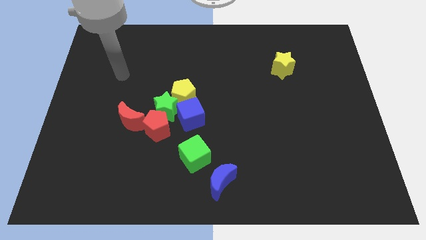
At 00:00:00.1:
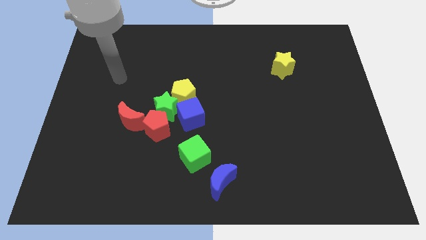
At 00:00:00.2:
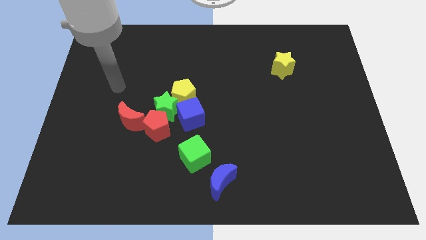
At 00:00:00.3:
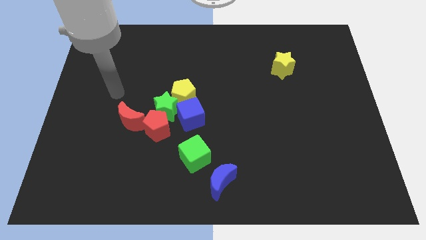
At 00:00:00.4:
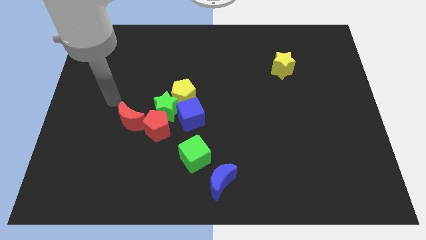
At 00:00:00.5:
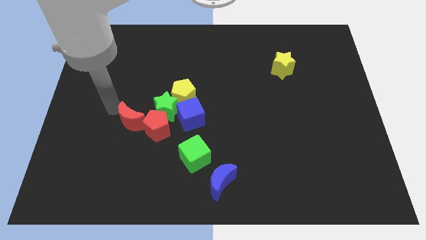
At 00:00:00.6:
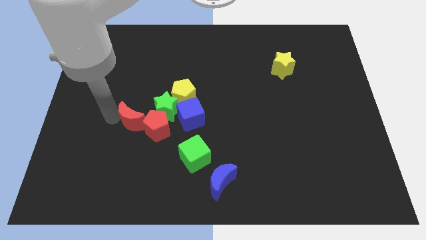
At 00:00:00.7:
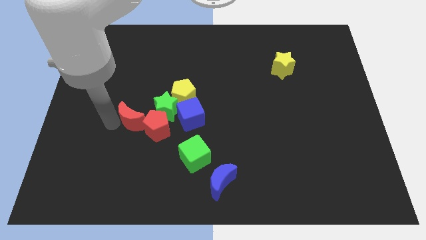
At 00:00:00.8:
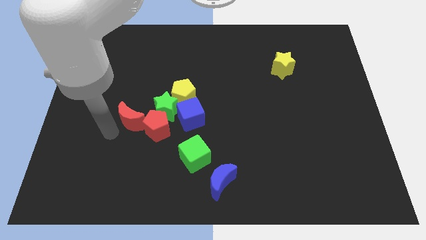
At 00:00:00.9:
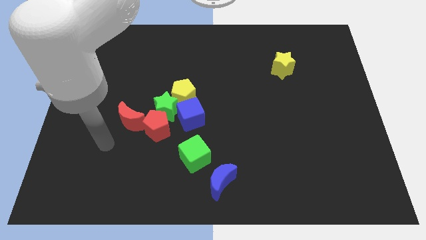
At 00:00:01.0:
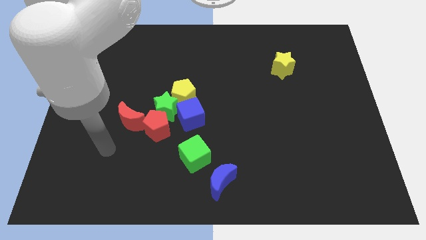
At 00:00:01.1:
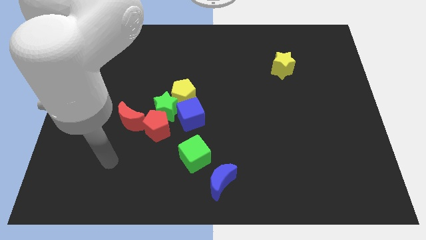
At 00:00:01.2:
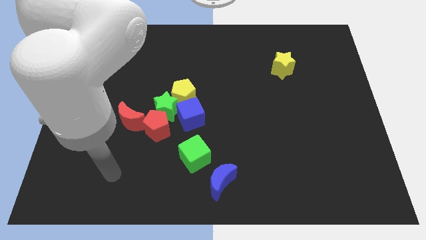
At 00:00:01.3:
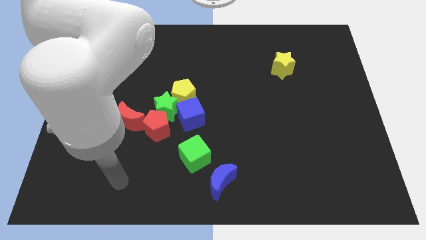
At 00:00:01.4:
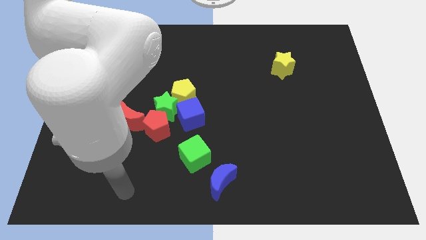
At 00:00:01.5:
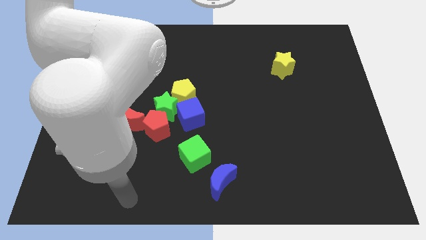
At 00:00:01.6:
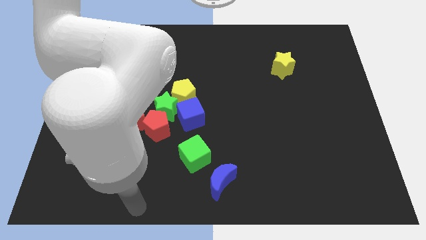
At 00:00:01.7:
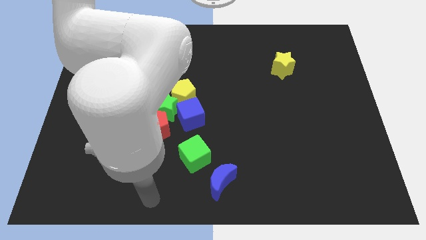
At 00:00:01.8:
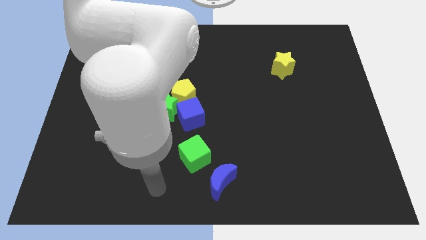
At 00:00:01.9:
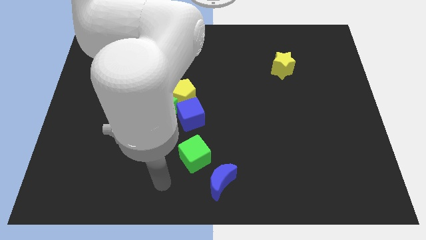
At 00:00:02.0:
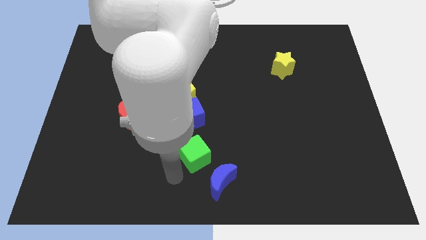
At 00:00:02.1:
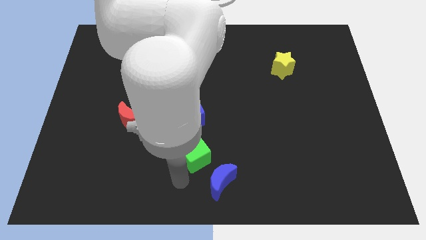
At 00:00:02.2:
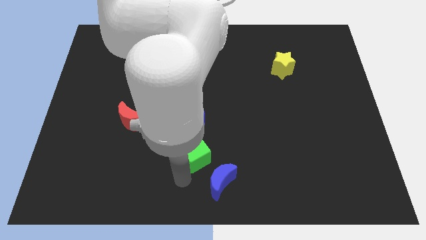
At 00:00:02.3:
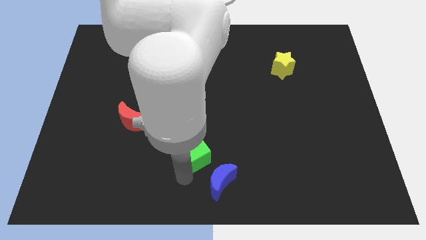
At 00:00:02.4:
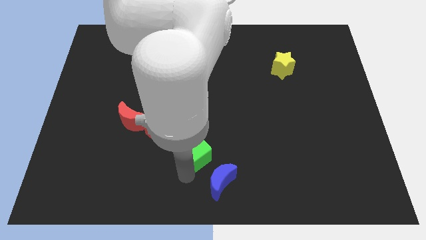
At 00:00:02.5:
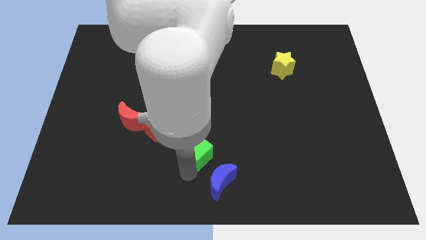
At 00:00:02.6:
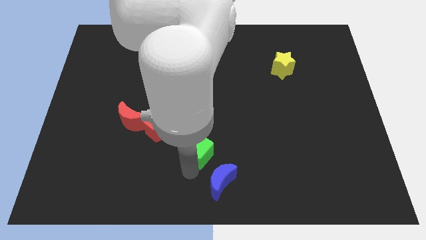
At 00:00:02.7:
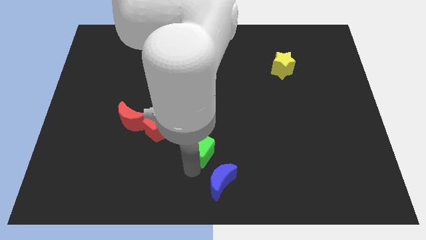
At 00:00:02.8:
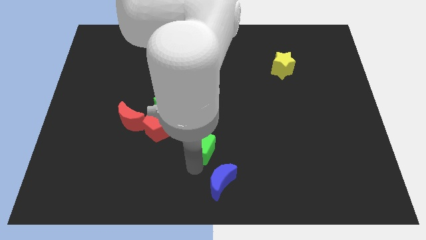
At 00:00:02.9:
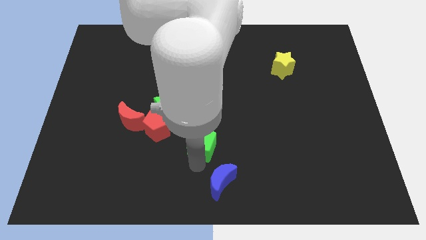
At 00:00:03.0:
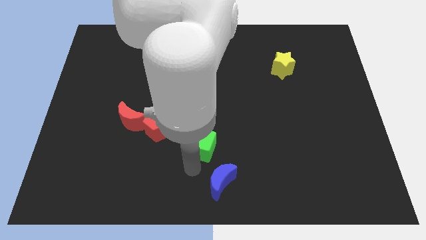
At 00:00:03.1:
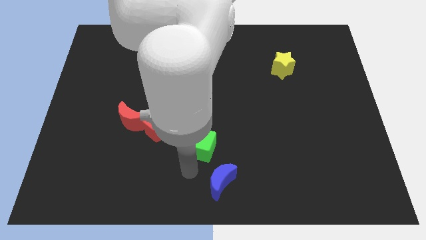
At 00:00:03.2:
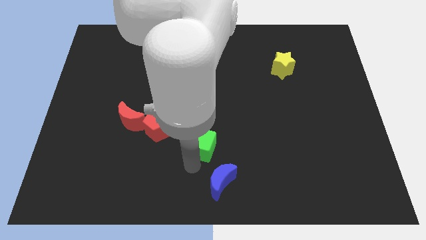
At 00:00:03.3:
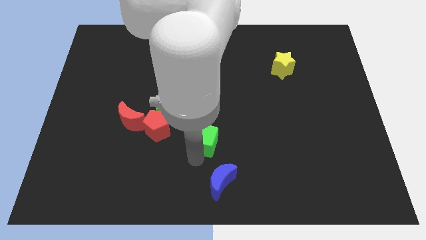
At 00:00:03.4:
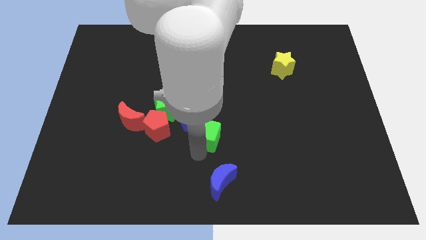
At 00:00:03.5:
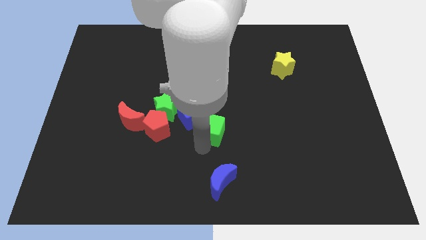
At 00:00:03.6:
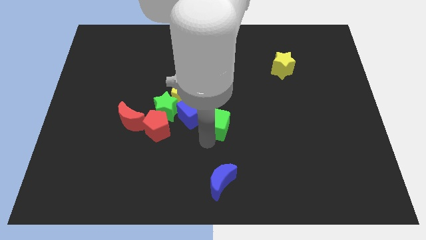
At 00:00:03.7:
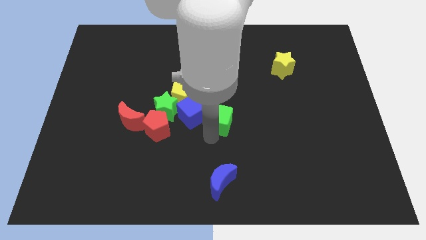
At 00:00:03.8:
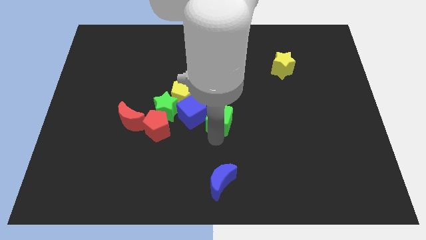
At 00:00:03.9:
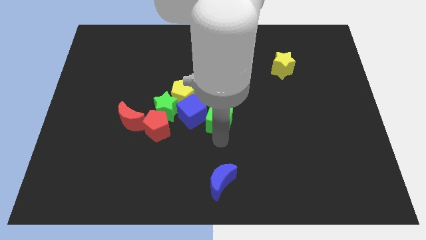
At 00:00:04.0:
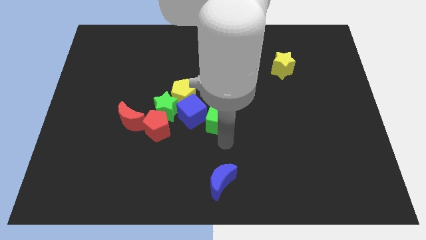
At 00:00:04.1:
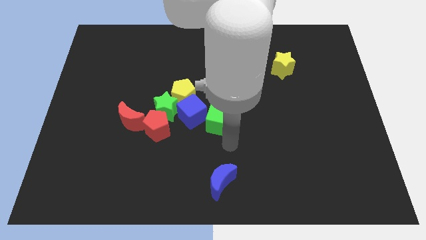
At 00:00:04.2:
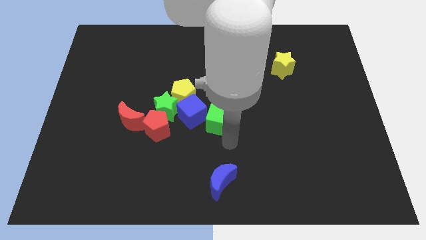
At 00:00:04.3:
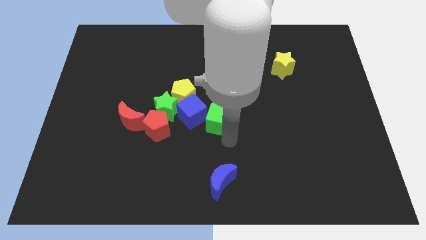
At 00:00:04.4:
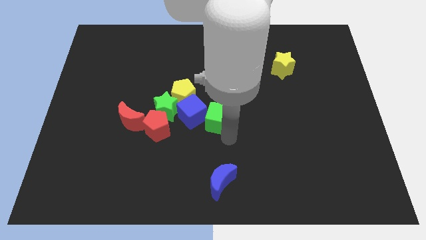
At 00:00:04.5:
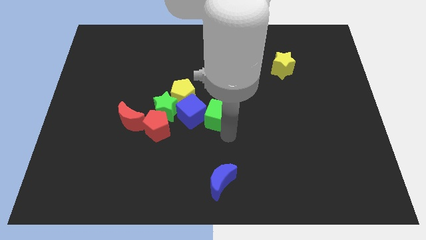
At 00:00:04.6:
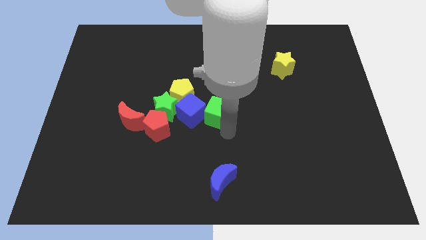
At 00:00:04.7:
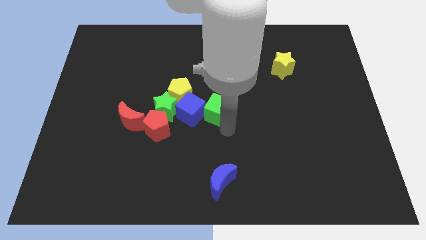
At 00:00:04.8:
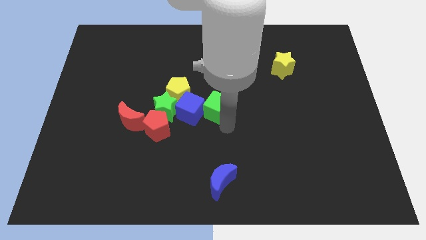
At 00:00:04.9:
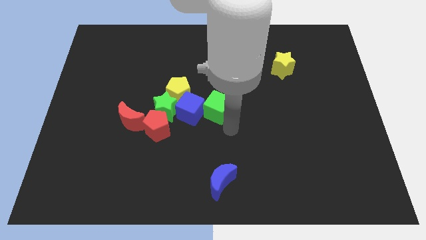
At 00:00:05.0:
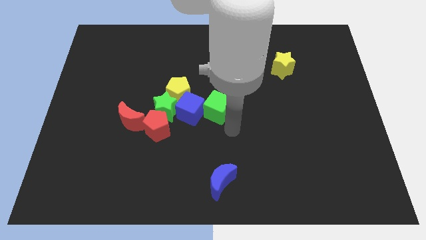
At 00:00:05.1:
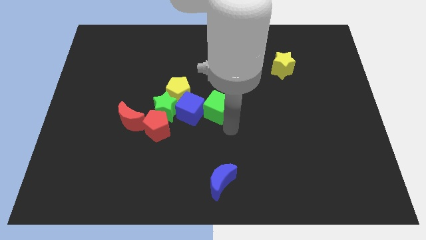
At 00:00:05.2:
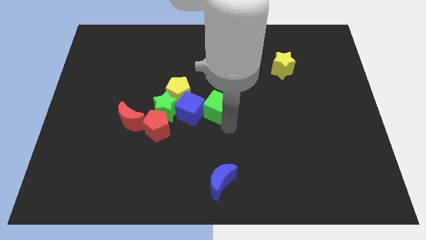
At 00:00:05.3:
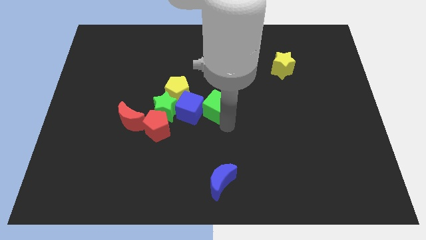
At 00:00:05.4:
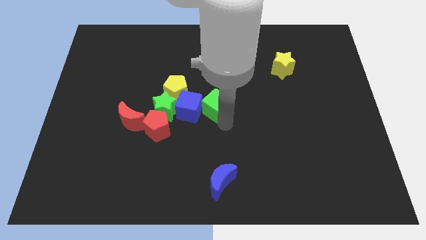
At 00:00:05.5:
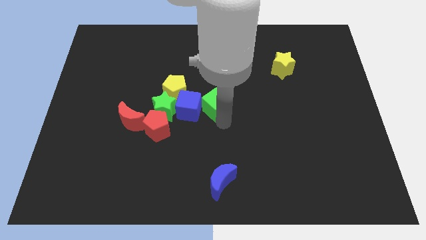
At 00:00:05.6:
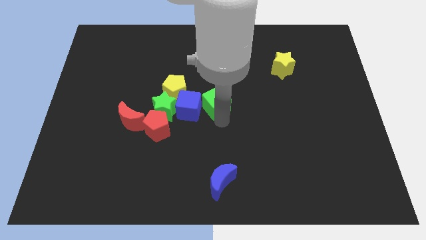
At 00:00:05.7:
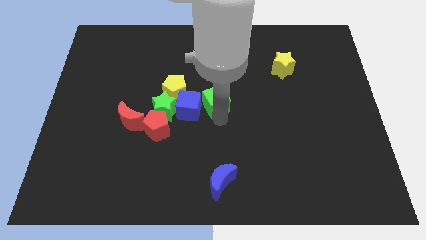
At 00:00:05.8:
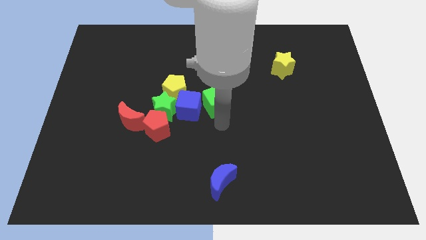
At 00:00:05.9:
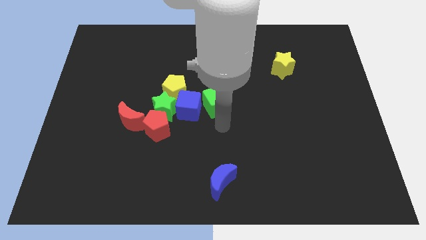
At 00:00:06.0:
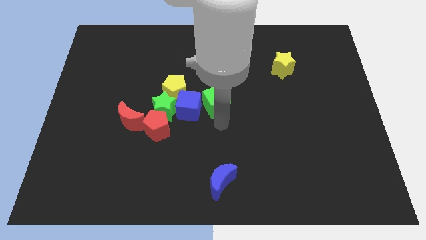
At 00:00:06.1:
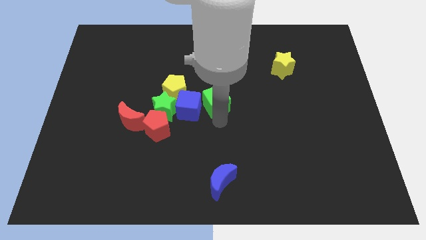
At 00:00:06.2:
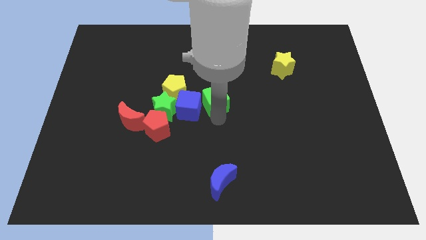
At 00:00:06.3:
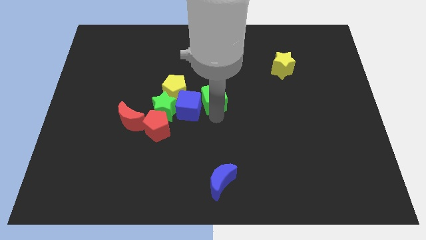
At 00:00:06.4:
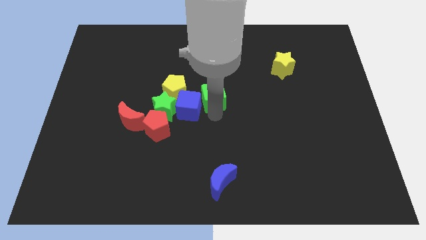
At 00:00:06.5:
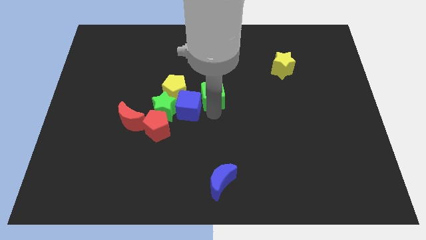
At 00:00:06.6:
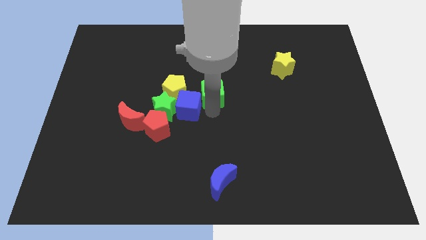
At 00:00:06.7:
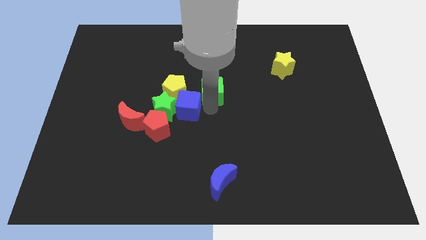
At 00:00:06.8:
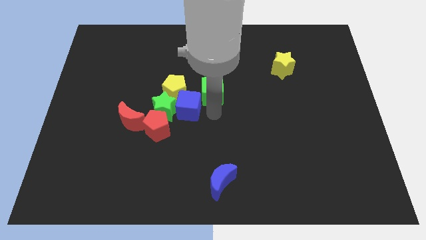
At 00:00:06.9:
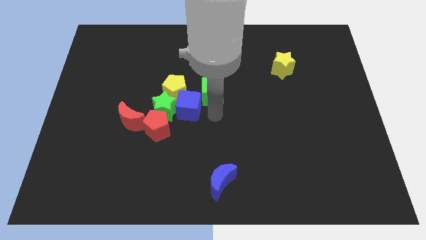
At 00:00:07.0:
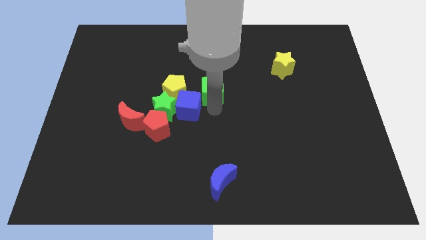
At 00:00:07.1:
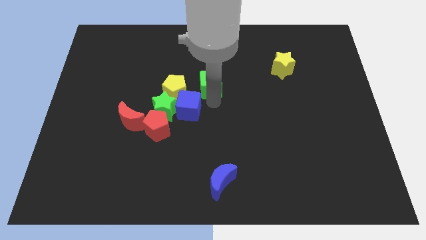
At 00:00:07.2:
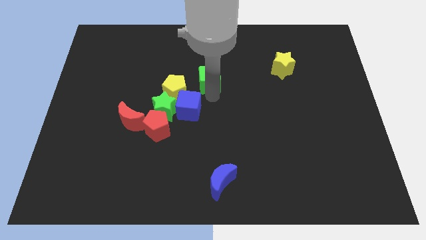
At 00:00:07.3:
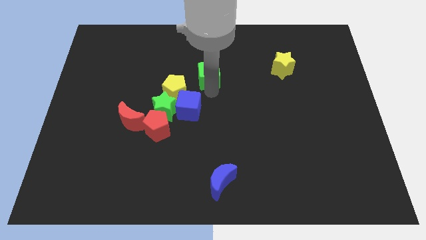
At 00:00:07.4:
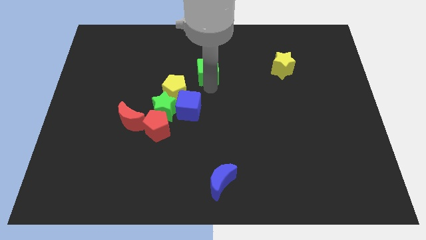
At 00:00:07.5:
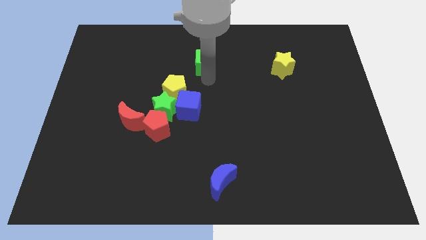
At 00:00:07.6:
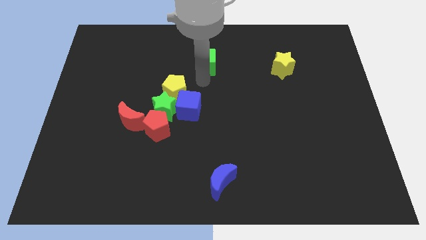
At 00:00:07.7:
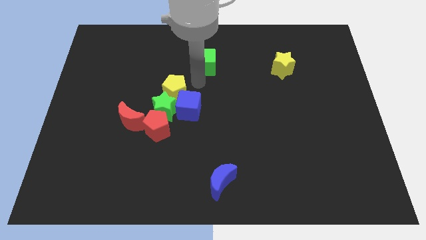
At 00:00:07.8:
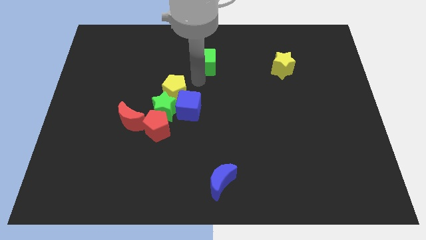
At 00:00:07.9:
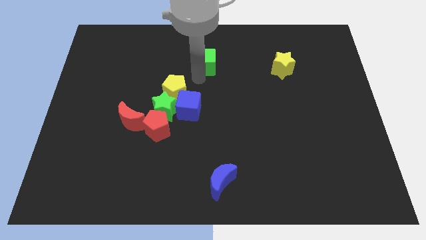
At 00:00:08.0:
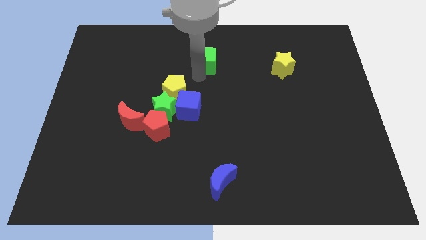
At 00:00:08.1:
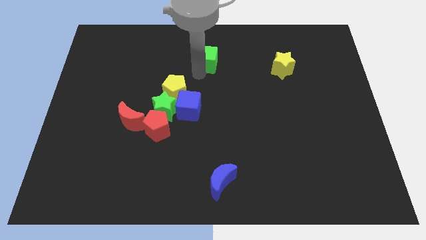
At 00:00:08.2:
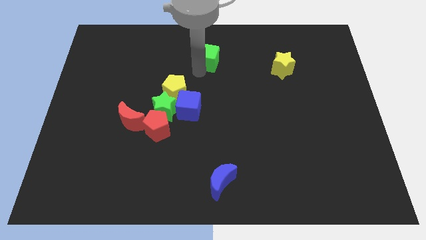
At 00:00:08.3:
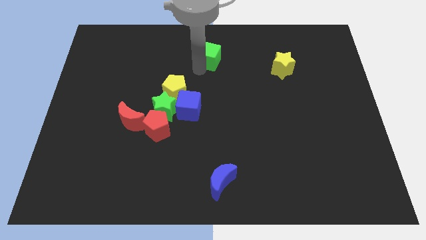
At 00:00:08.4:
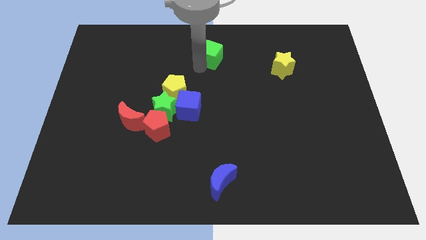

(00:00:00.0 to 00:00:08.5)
move the green cube to the top side
